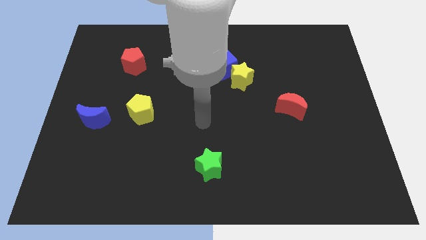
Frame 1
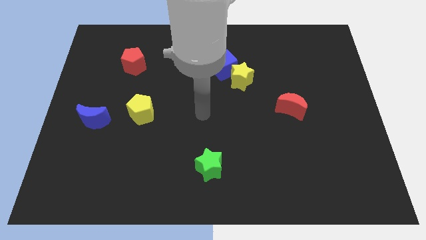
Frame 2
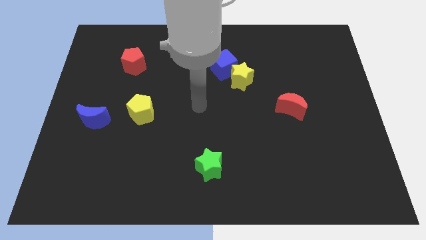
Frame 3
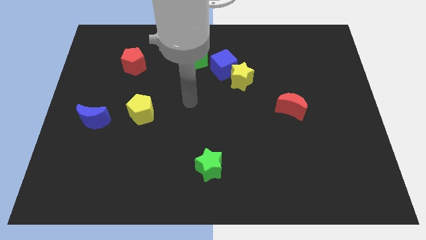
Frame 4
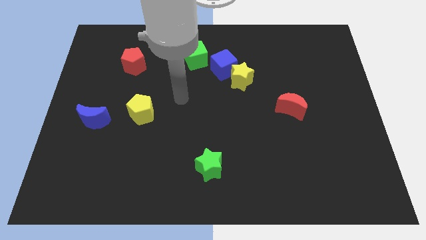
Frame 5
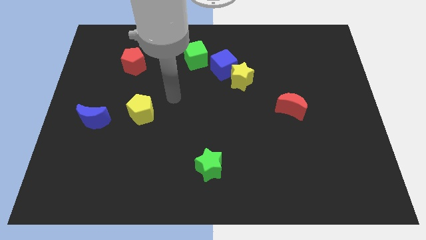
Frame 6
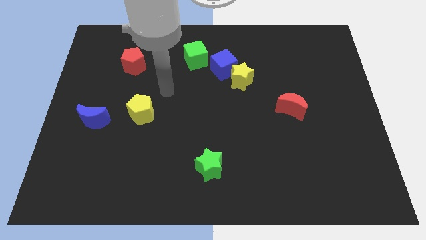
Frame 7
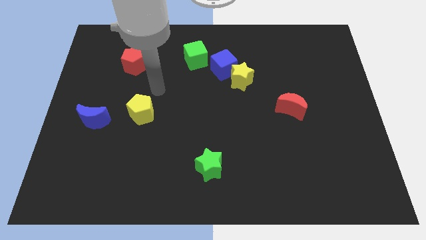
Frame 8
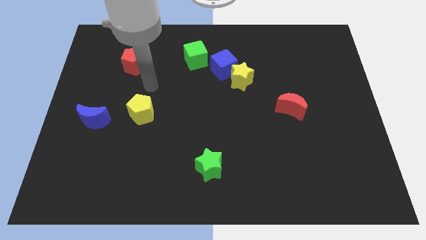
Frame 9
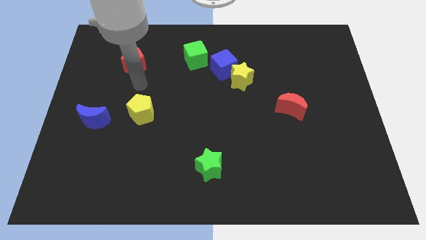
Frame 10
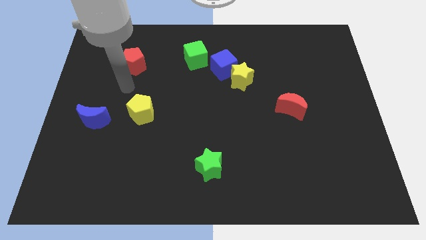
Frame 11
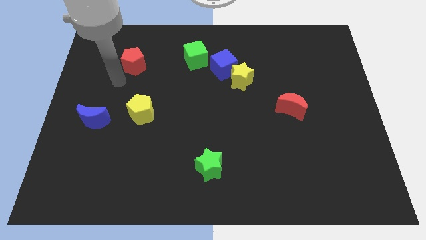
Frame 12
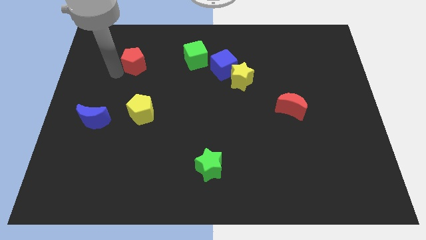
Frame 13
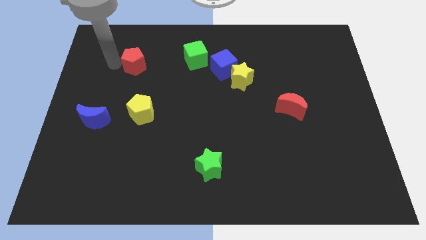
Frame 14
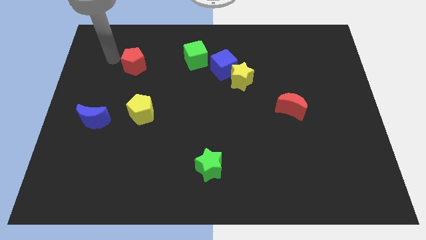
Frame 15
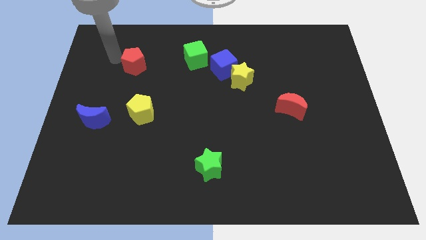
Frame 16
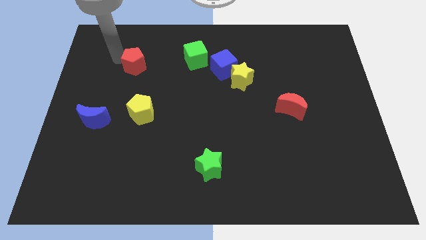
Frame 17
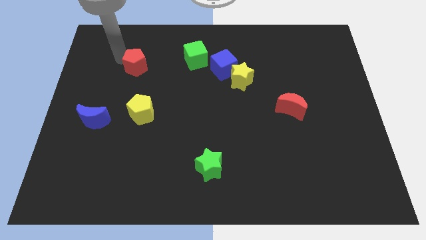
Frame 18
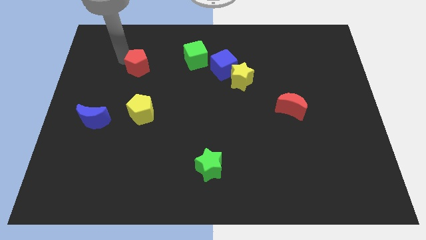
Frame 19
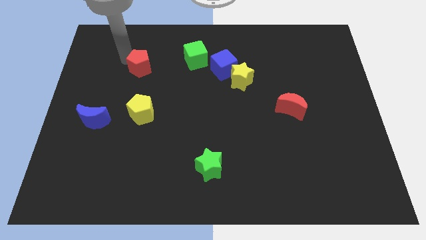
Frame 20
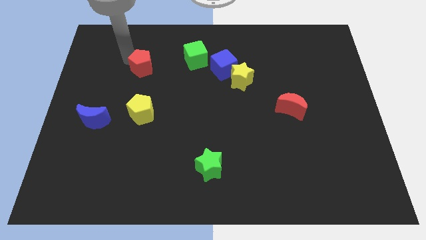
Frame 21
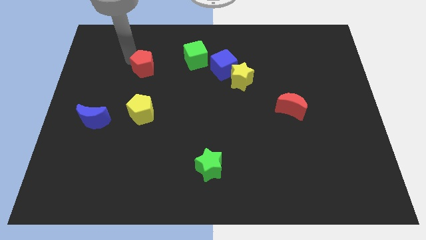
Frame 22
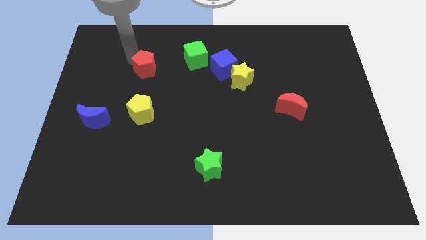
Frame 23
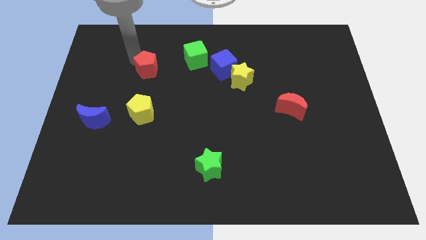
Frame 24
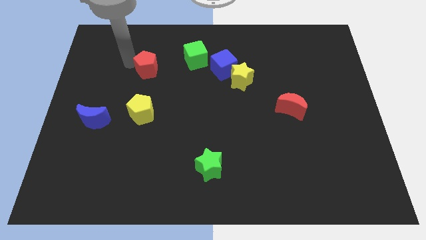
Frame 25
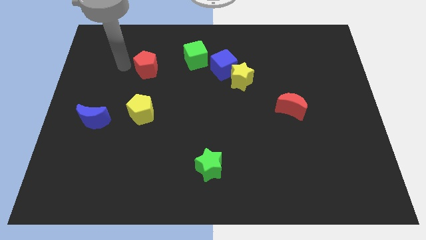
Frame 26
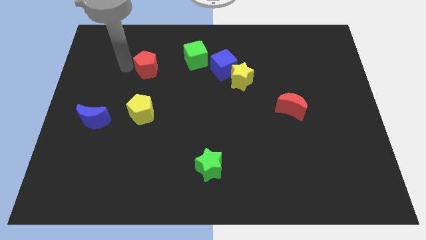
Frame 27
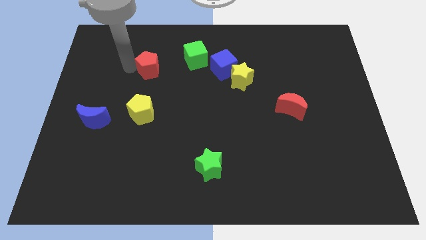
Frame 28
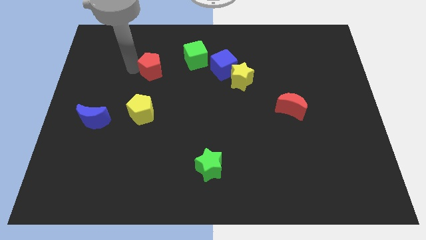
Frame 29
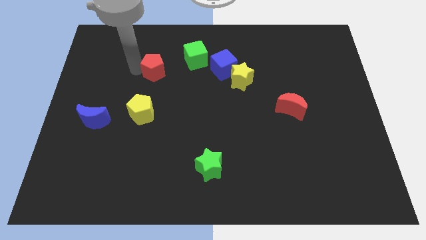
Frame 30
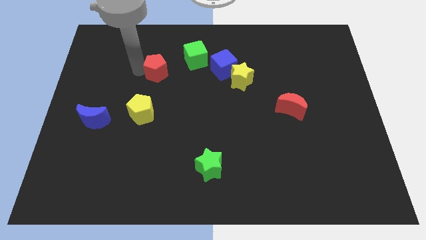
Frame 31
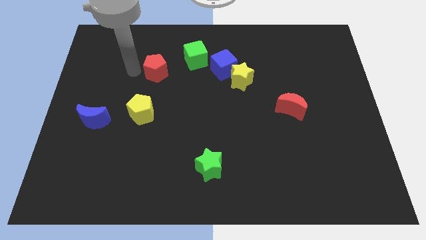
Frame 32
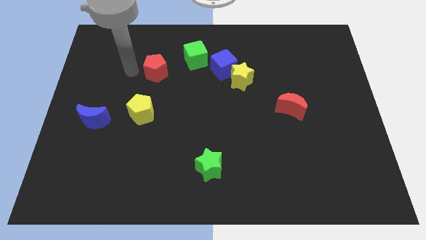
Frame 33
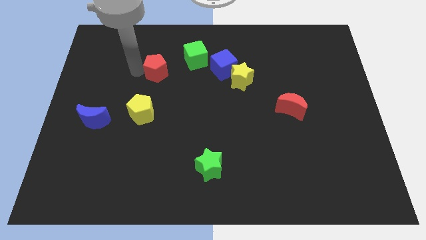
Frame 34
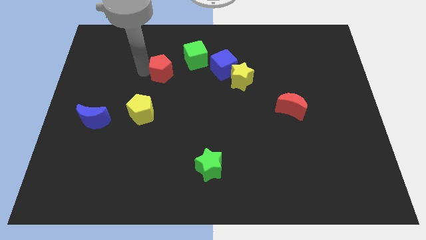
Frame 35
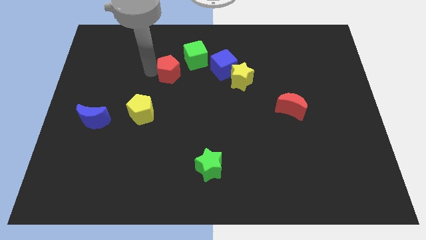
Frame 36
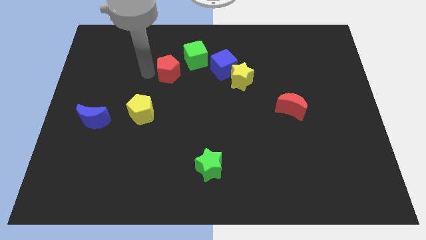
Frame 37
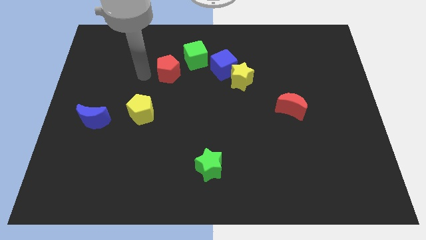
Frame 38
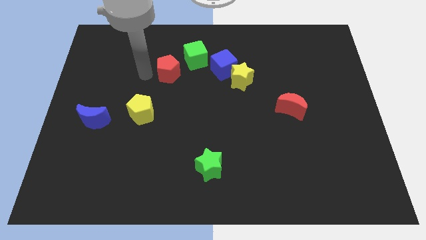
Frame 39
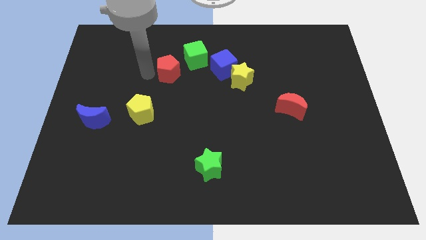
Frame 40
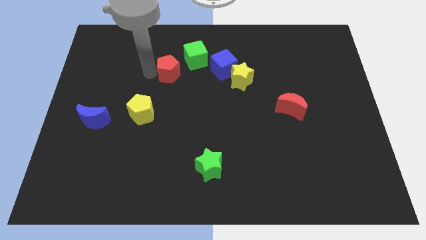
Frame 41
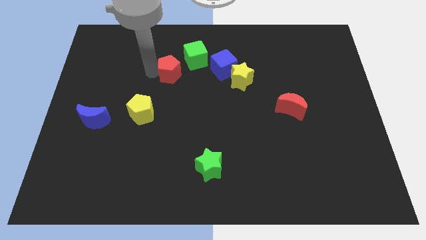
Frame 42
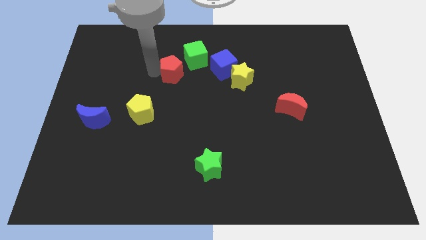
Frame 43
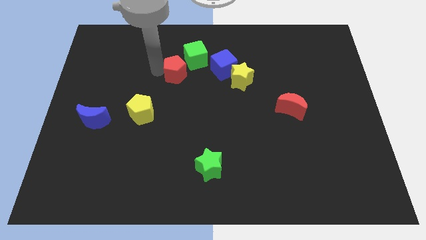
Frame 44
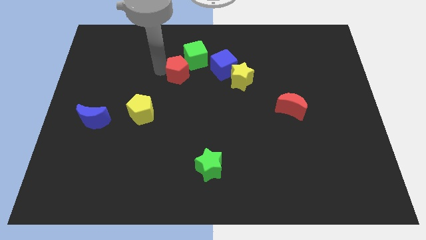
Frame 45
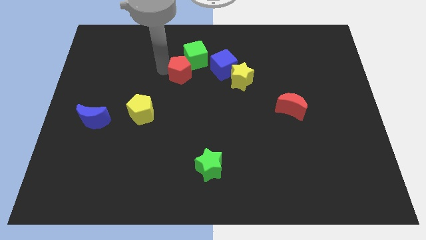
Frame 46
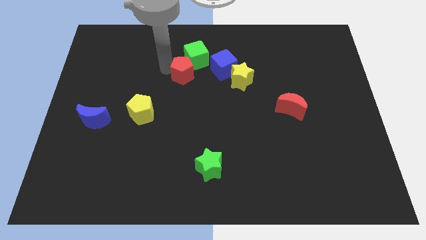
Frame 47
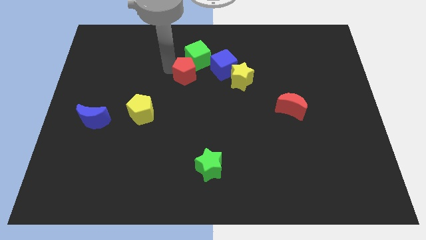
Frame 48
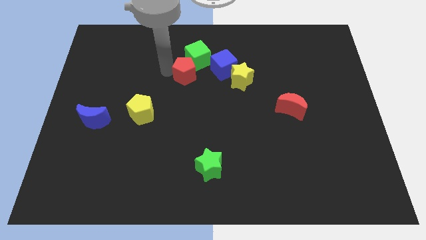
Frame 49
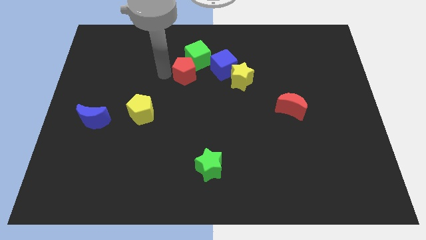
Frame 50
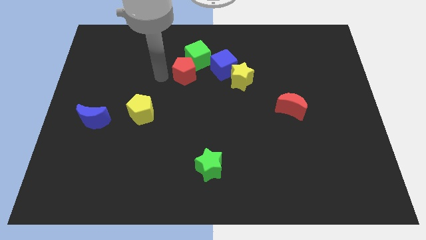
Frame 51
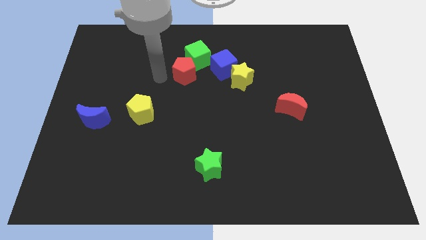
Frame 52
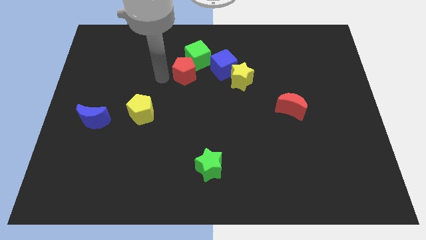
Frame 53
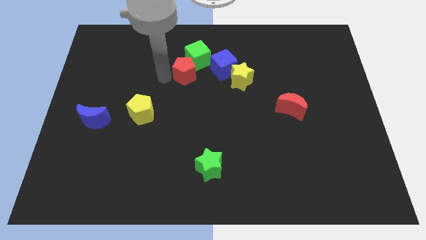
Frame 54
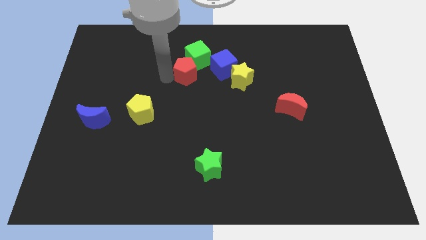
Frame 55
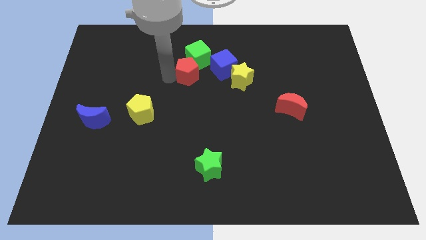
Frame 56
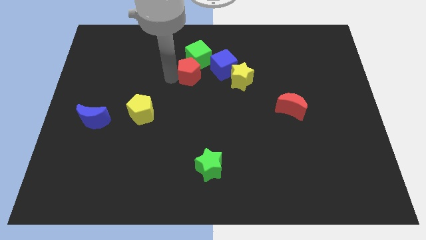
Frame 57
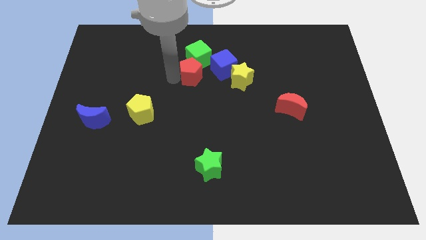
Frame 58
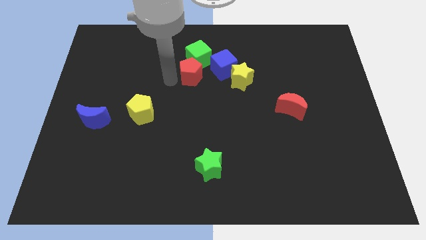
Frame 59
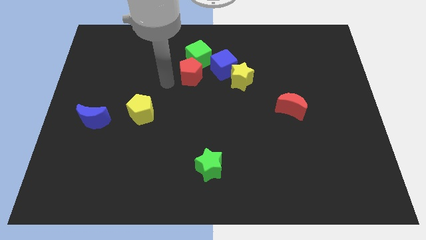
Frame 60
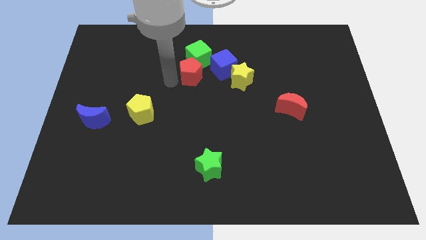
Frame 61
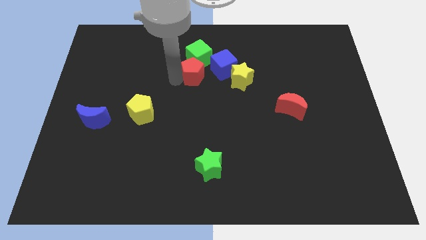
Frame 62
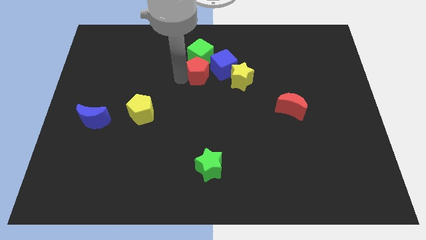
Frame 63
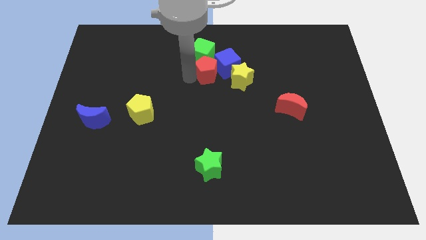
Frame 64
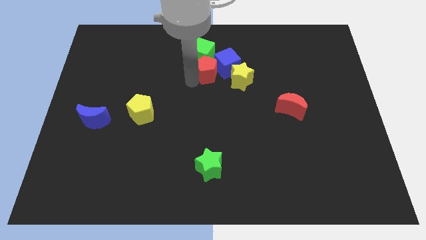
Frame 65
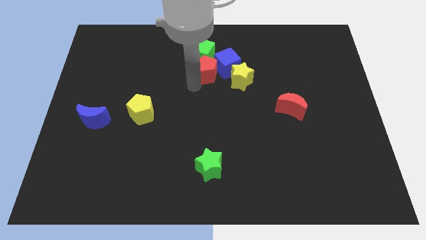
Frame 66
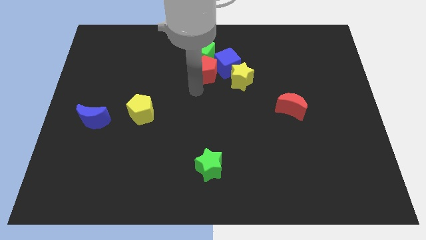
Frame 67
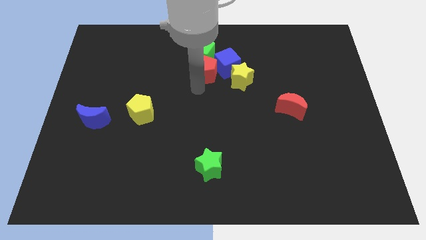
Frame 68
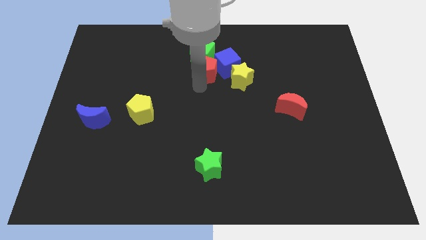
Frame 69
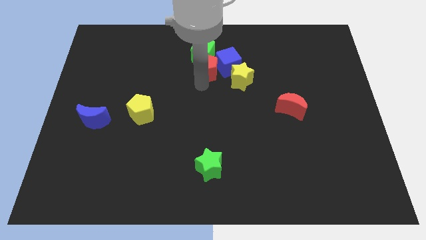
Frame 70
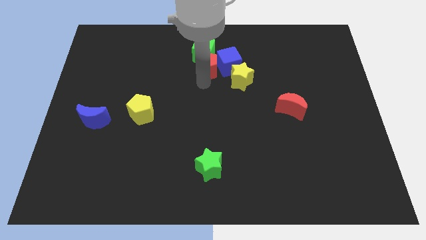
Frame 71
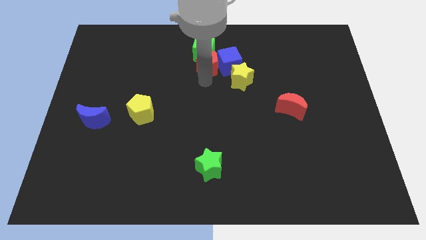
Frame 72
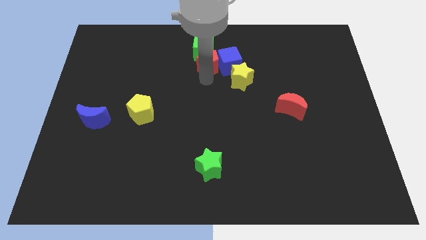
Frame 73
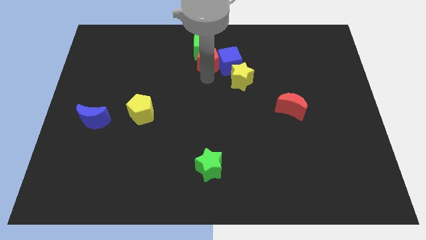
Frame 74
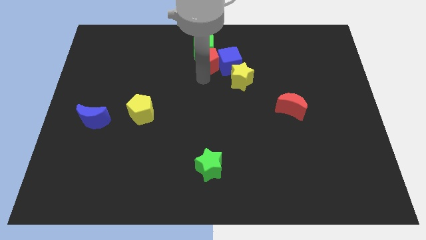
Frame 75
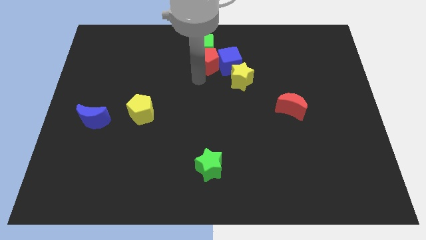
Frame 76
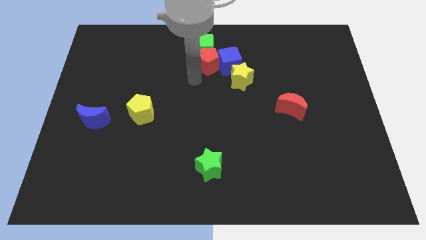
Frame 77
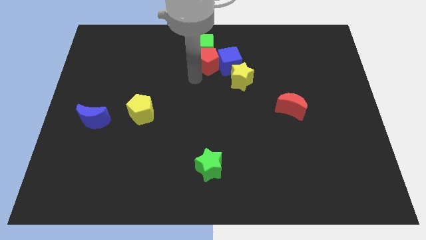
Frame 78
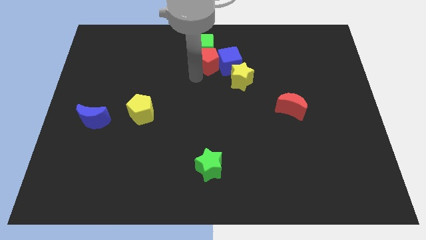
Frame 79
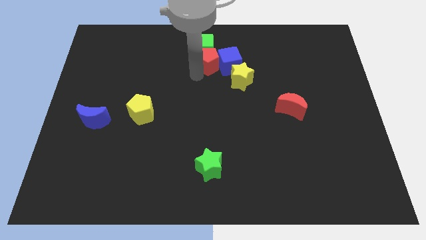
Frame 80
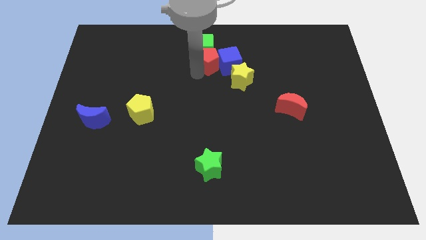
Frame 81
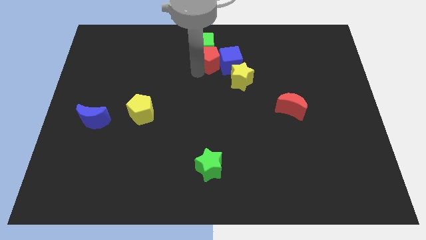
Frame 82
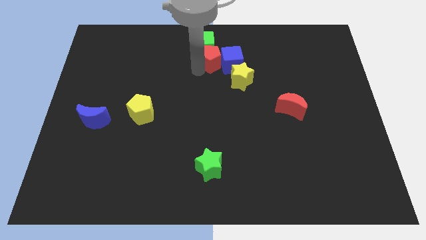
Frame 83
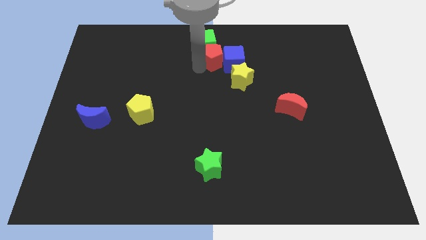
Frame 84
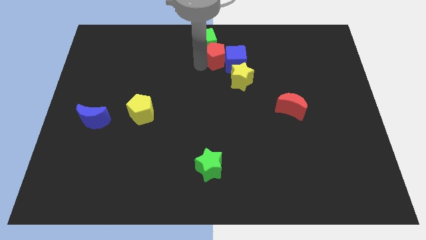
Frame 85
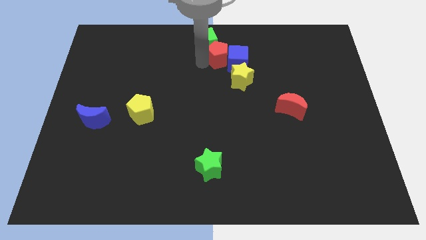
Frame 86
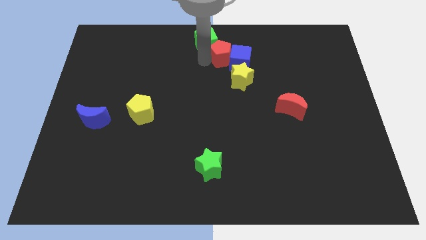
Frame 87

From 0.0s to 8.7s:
push the red pentagon just right of the green cube
